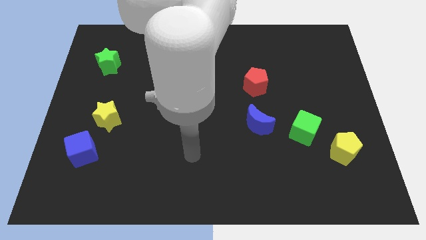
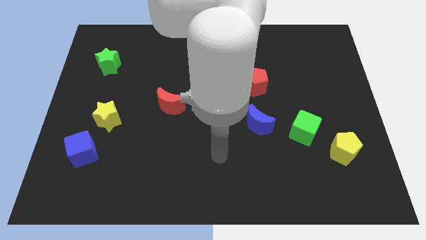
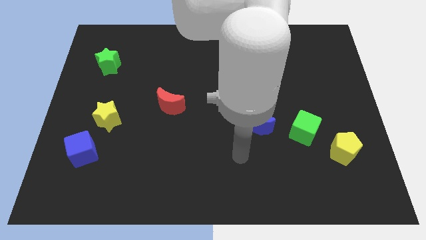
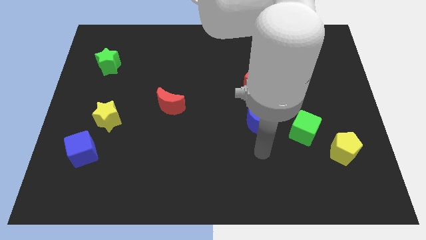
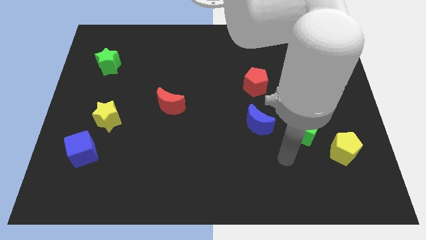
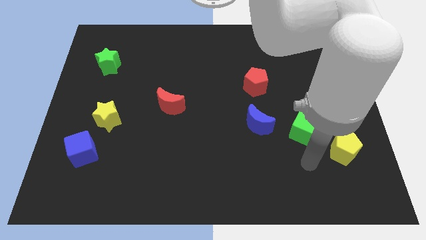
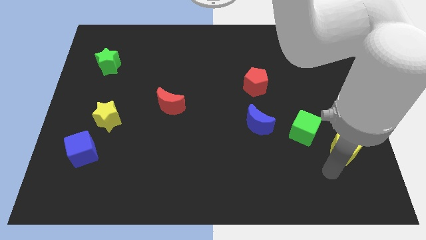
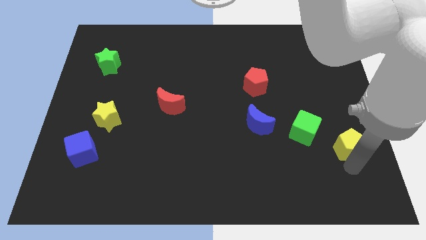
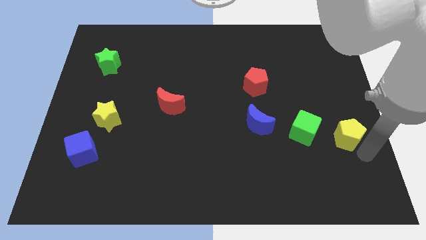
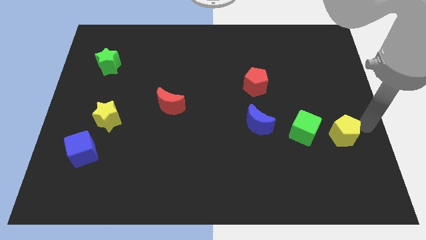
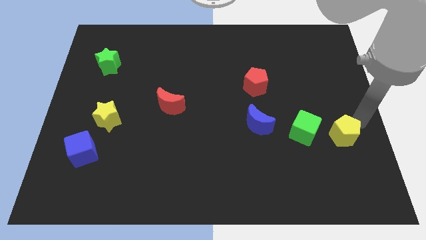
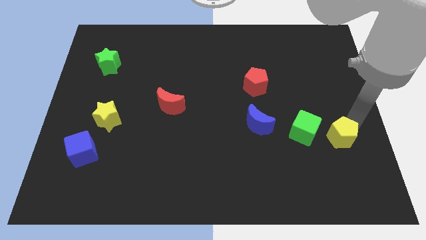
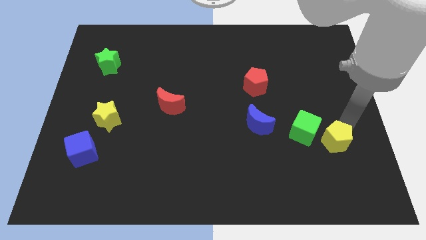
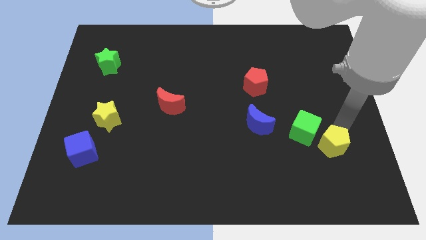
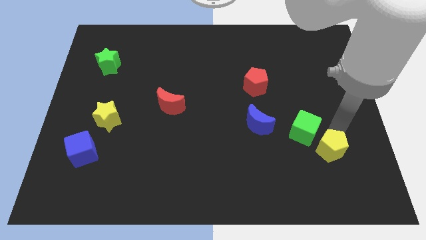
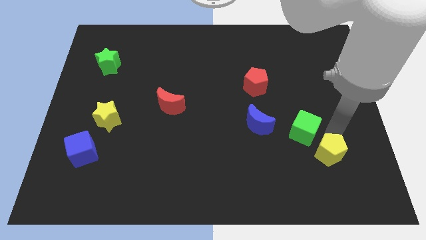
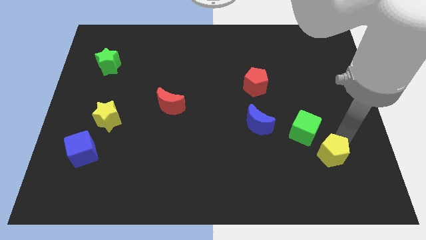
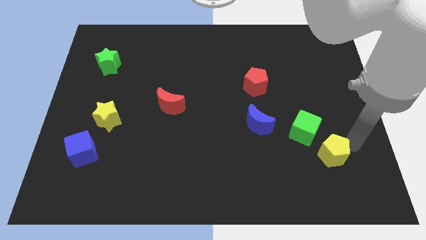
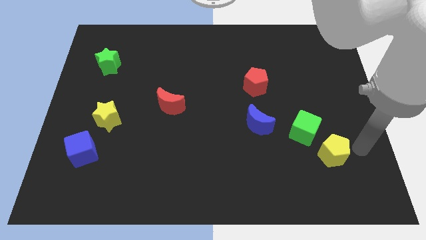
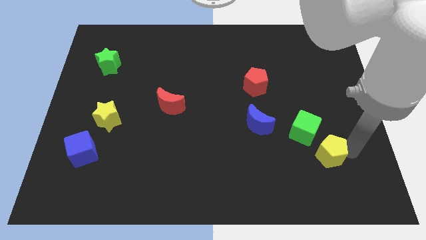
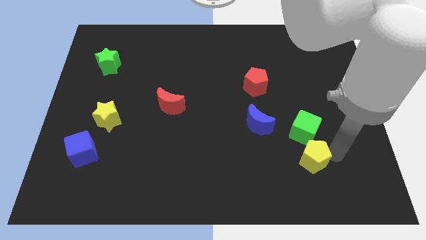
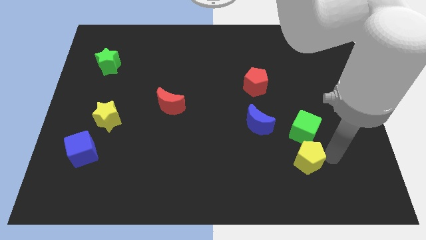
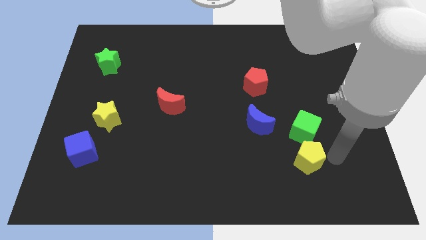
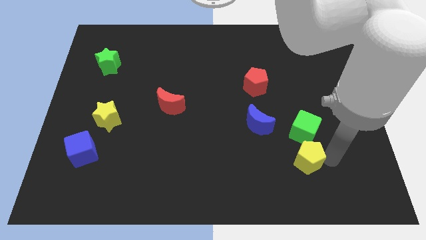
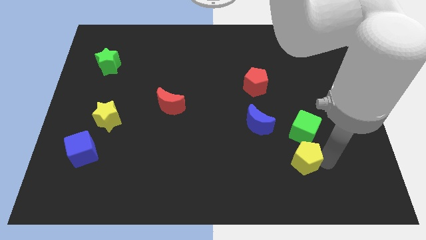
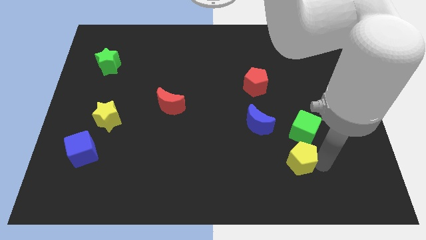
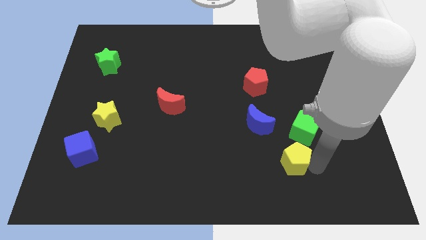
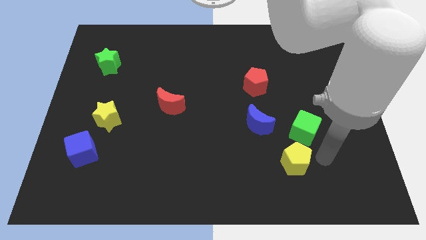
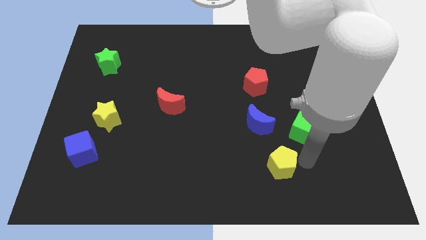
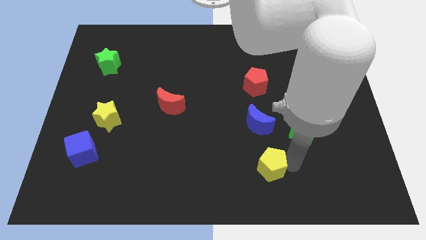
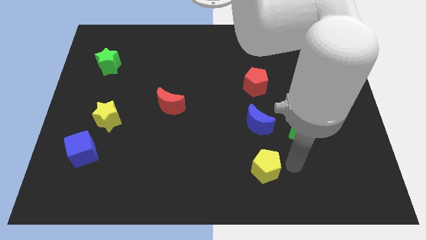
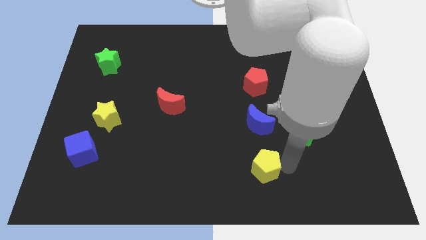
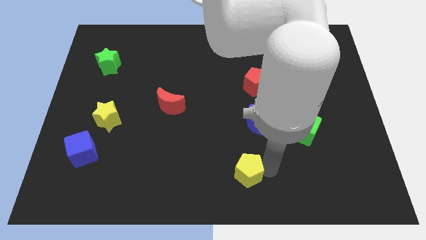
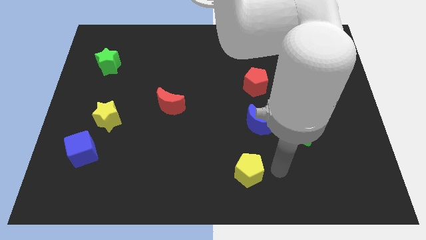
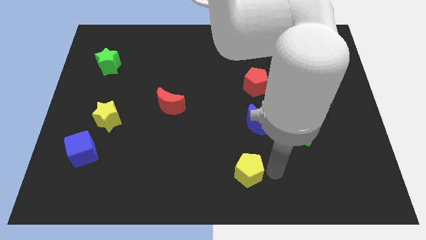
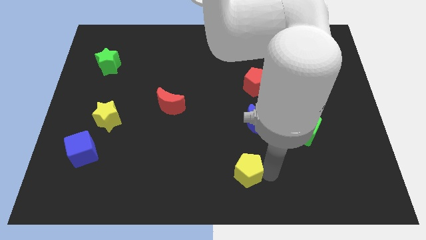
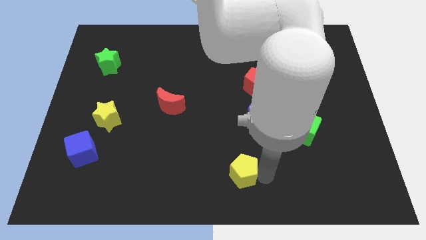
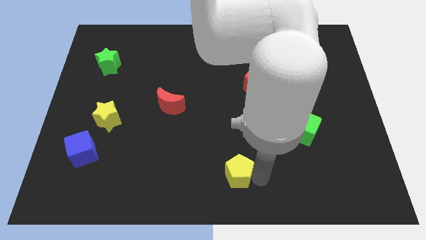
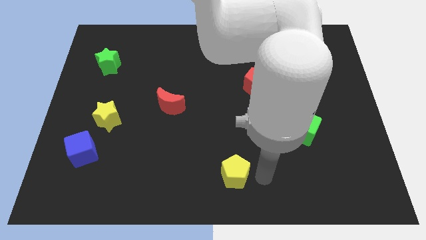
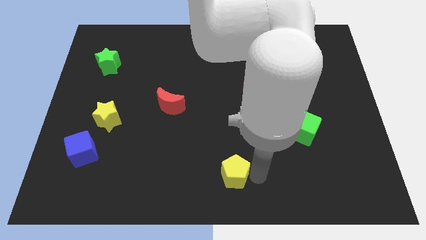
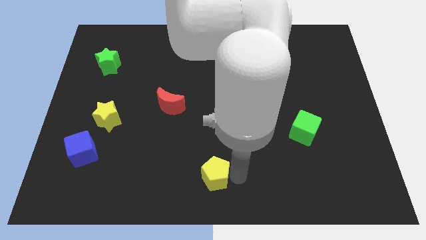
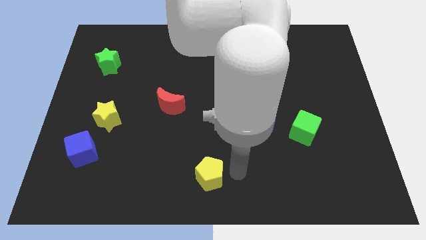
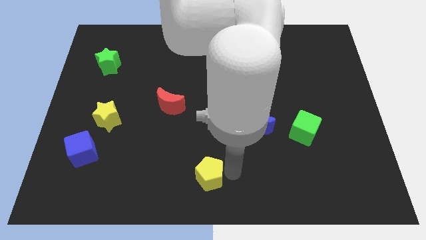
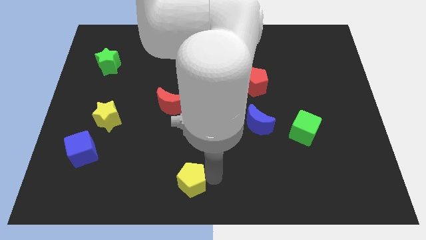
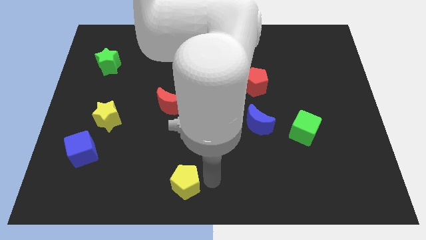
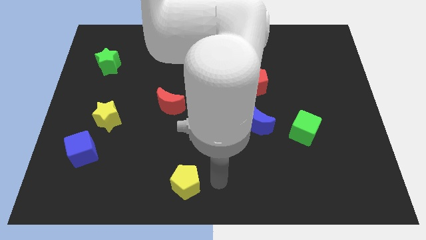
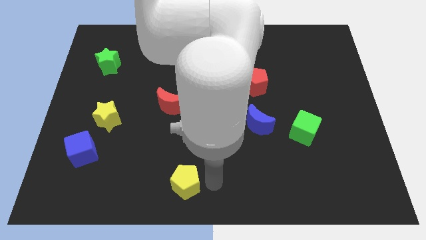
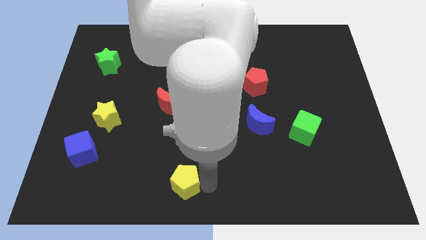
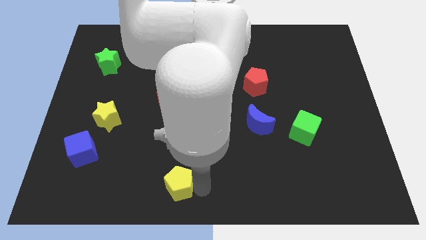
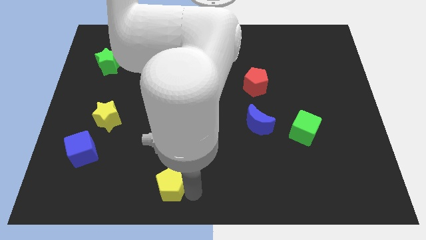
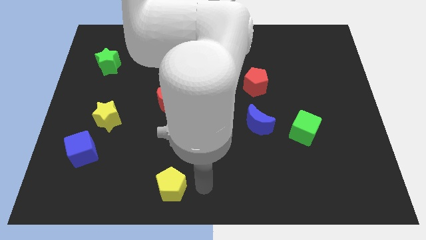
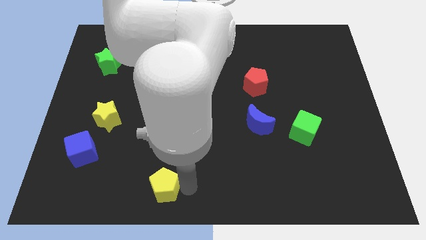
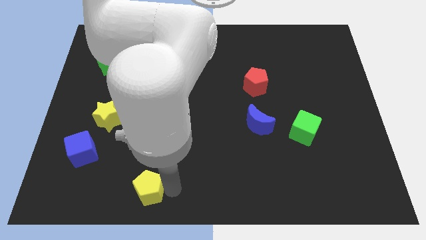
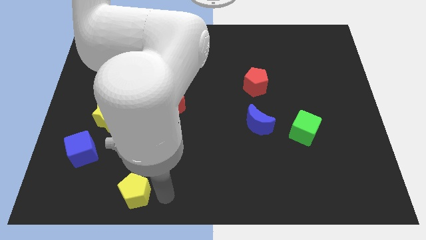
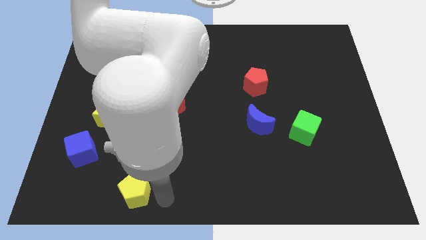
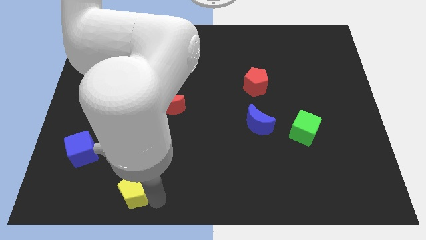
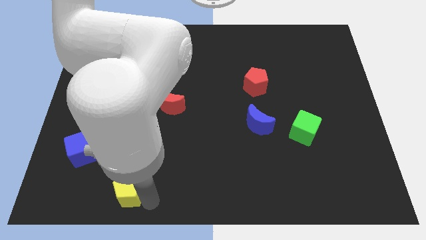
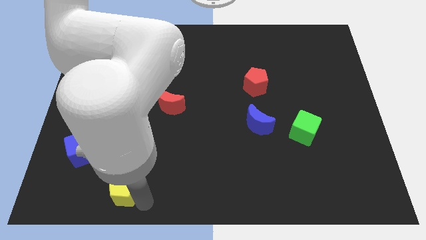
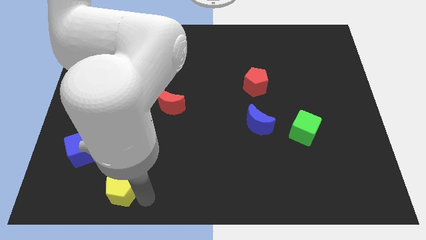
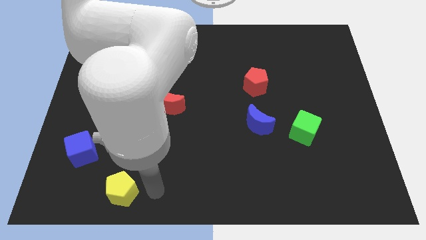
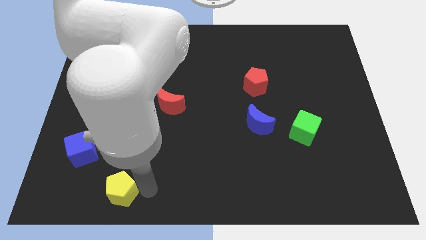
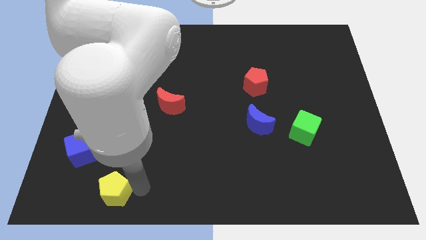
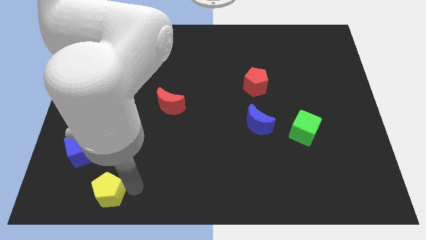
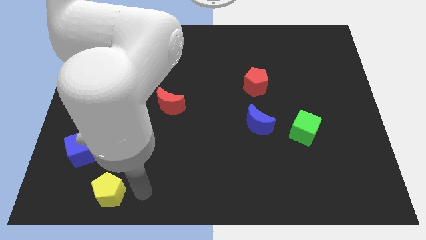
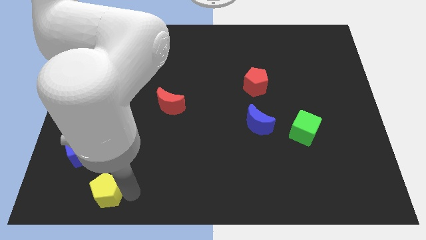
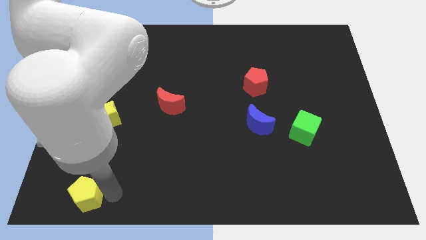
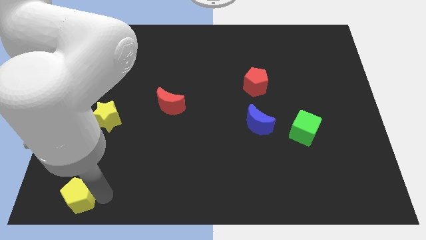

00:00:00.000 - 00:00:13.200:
put the yellow pentagon to the bottom left
